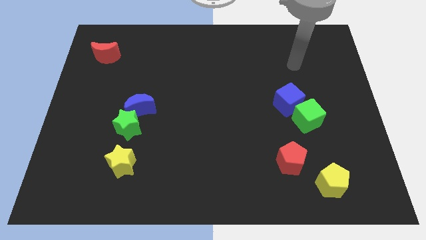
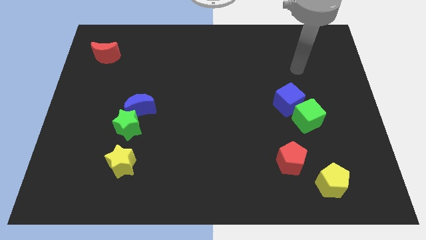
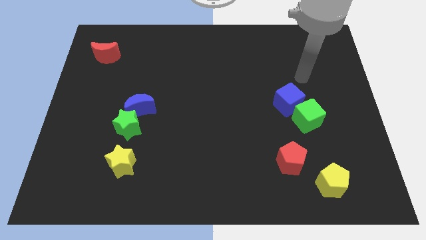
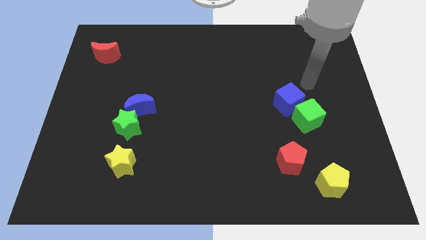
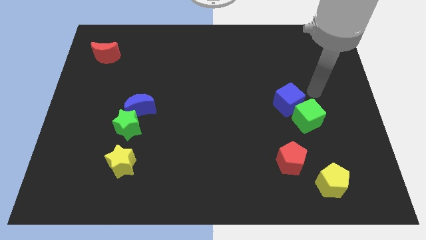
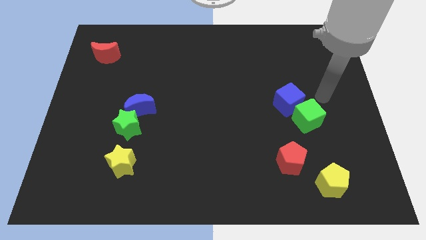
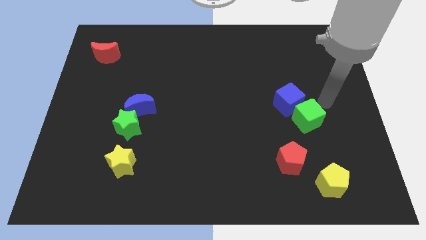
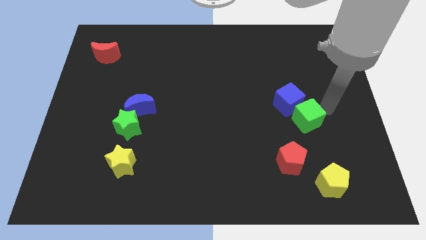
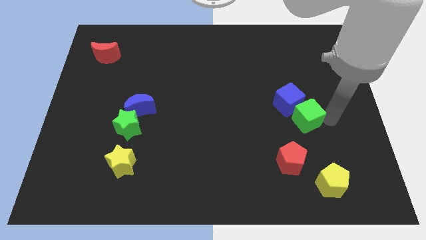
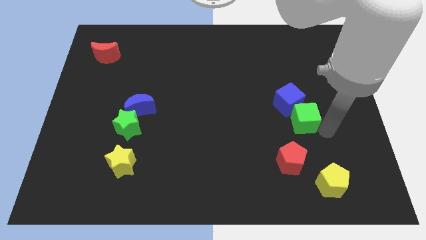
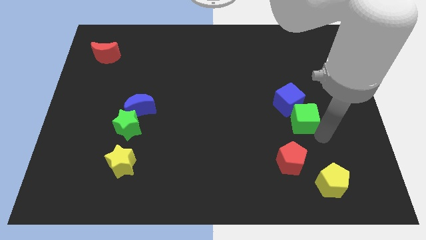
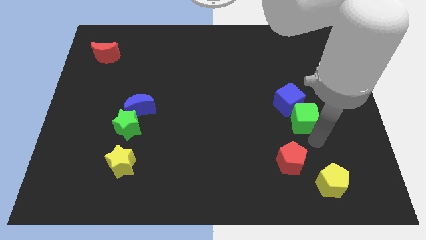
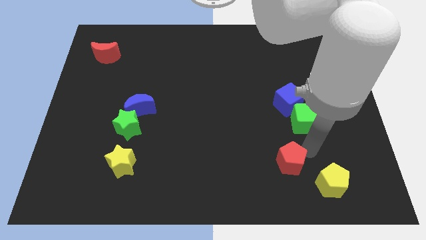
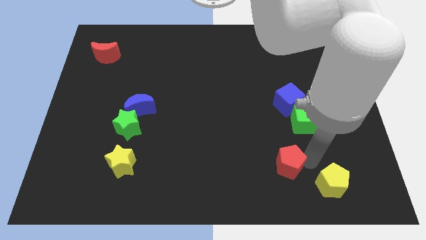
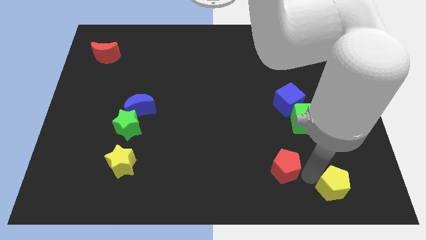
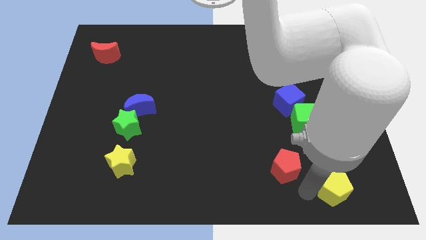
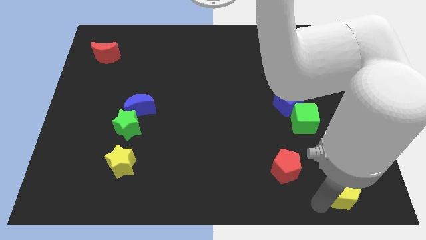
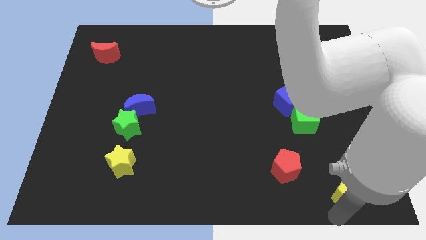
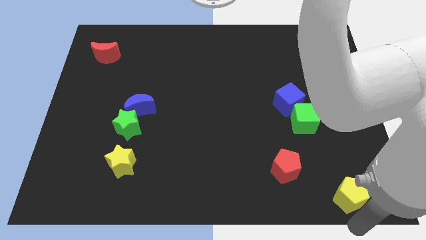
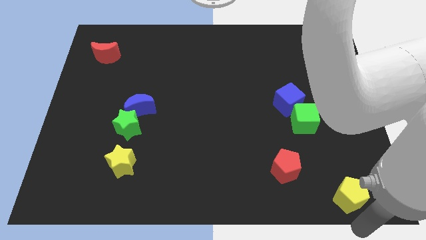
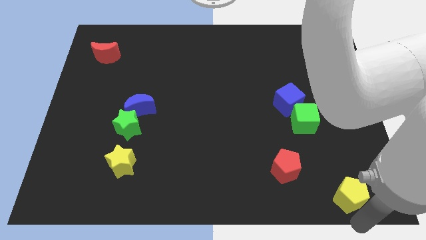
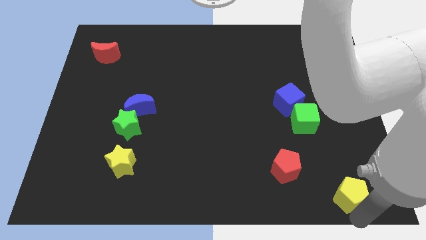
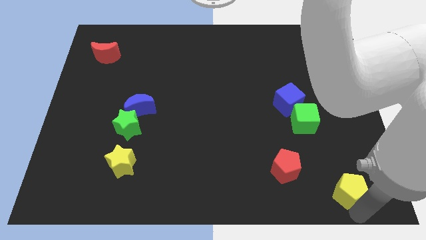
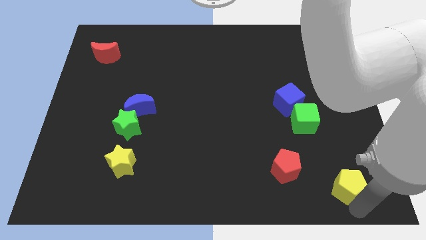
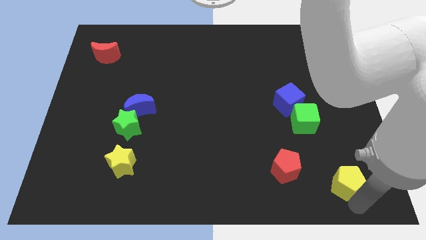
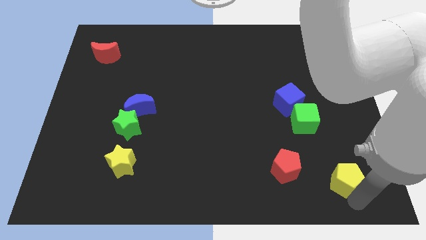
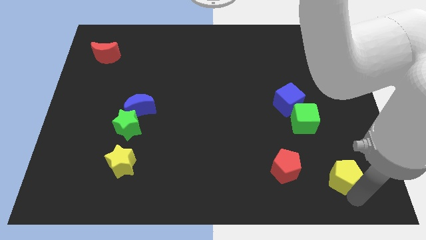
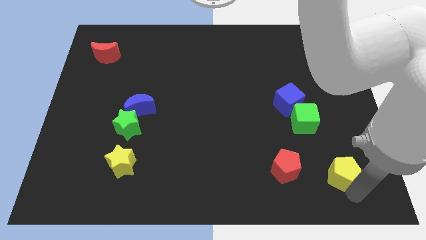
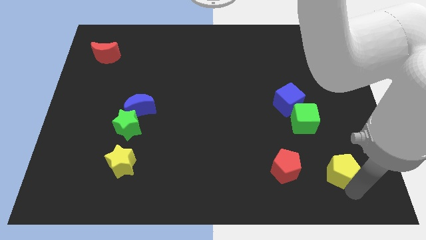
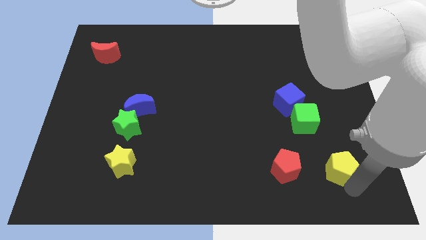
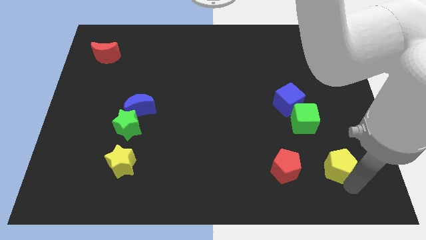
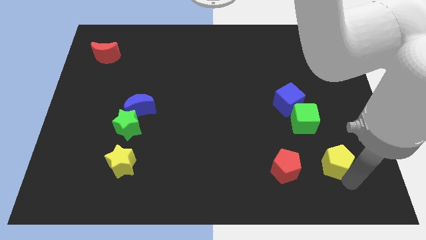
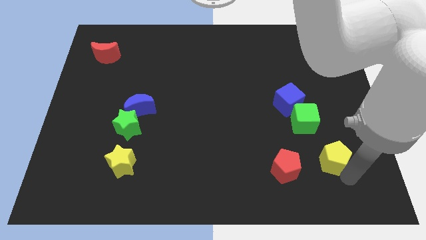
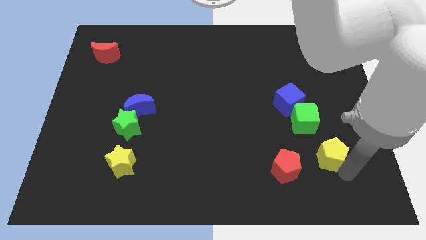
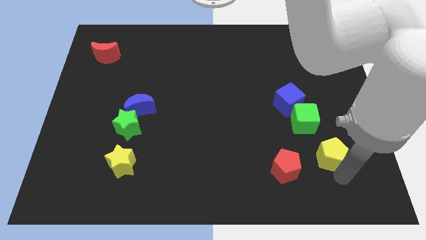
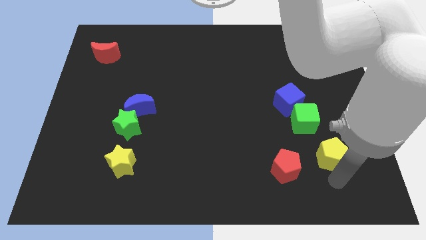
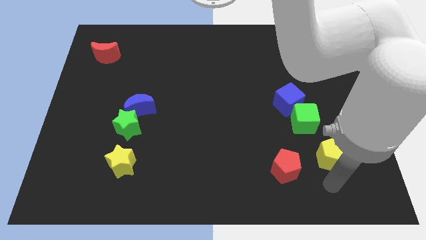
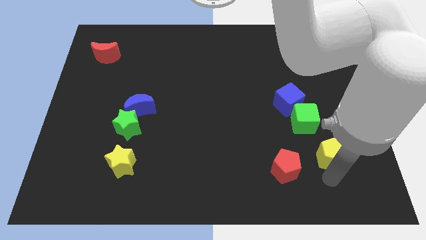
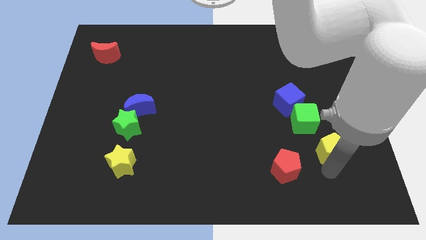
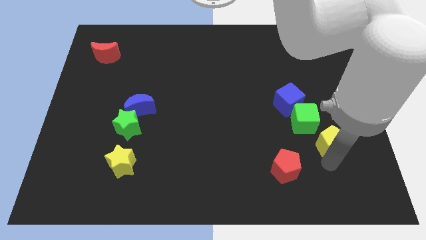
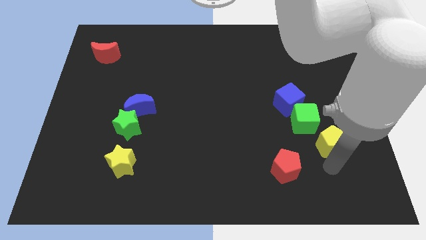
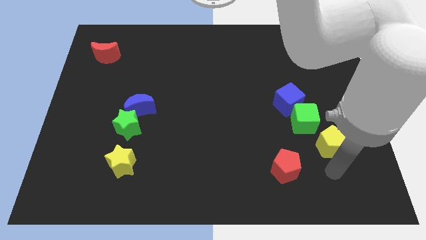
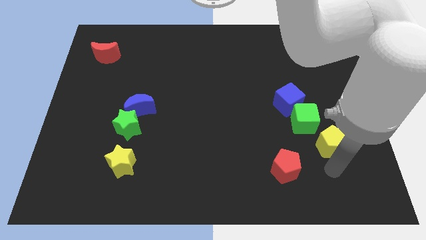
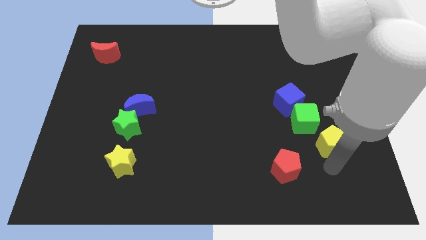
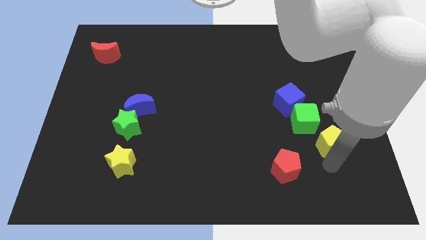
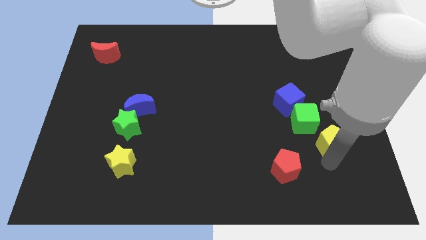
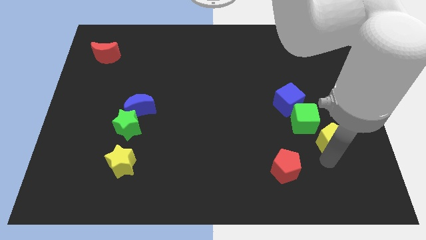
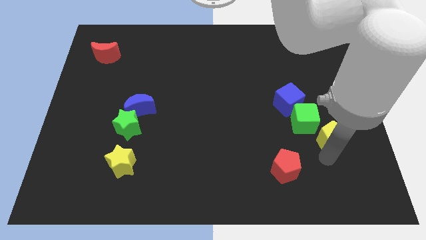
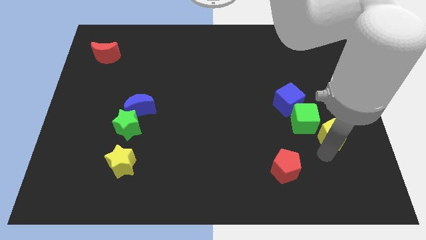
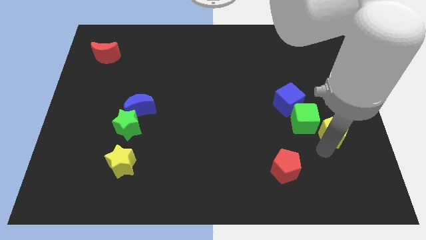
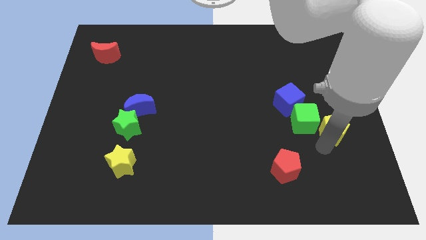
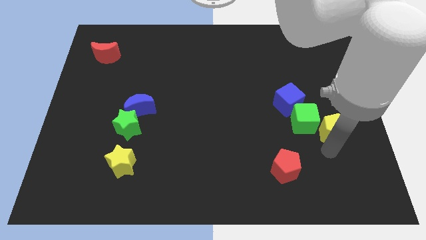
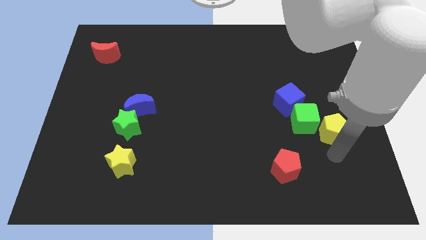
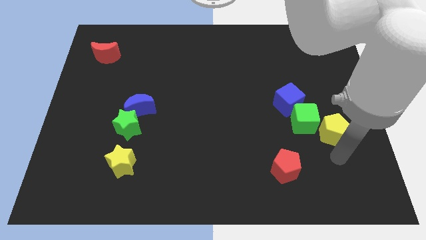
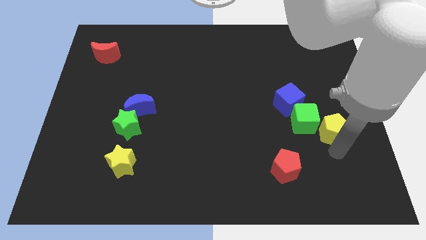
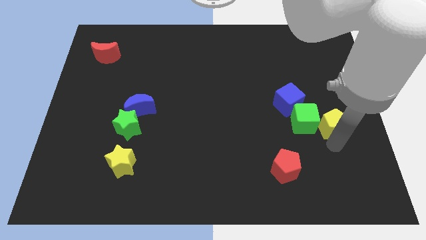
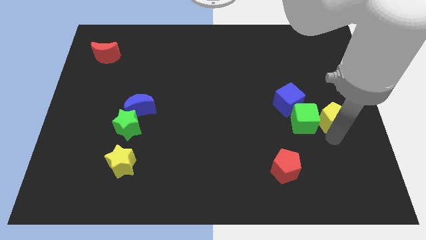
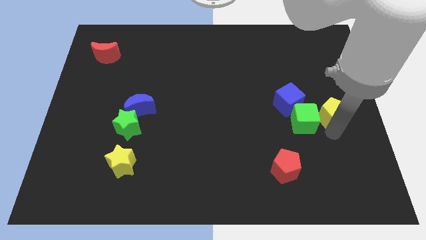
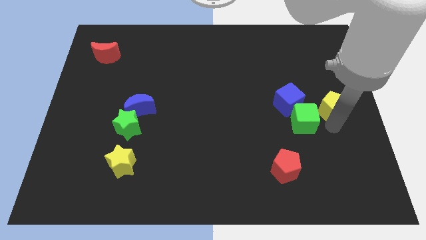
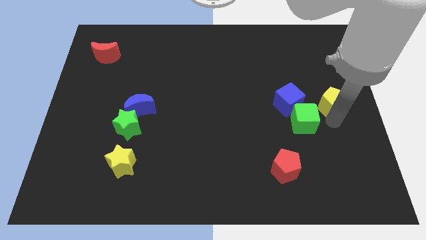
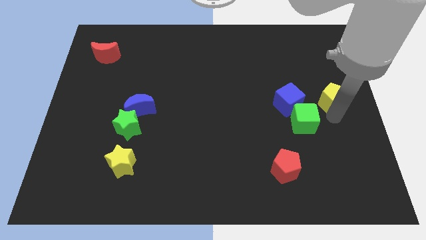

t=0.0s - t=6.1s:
move the yellow pentagon up

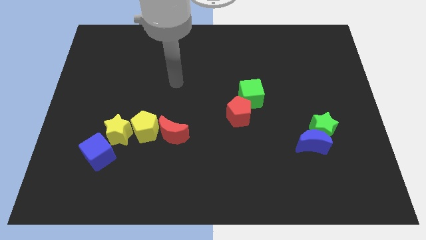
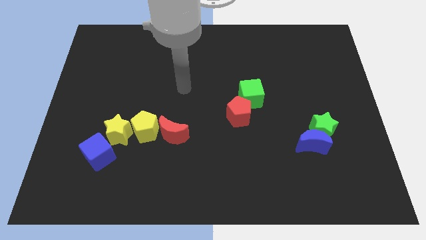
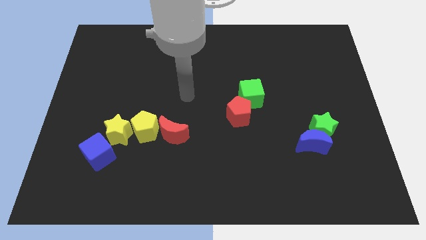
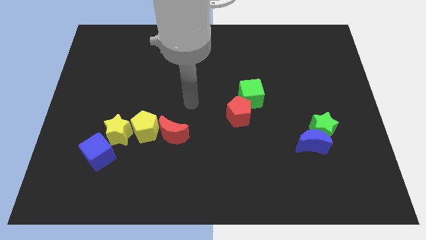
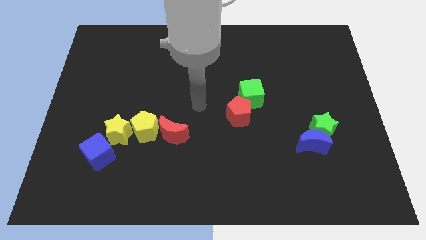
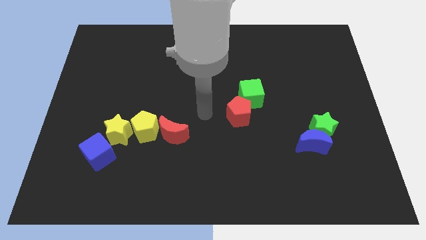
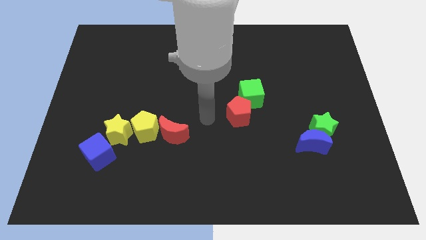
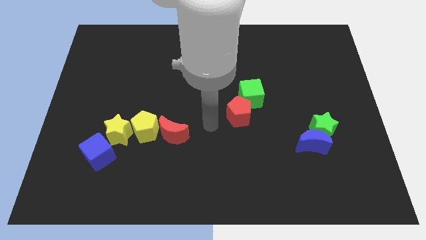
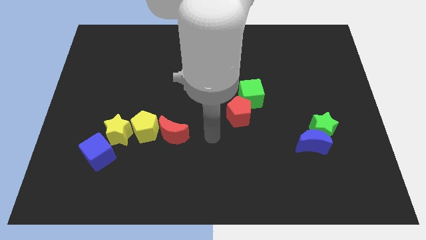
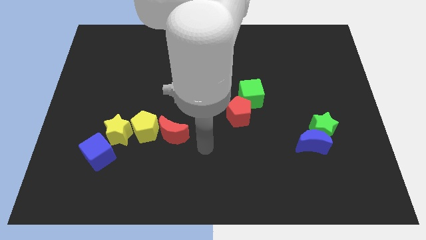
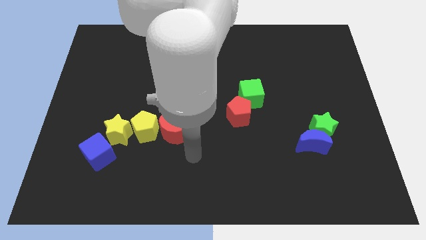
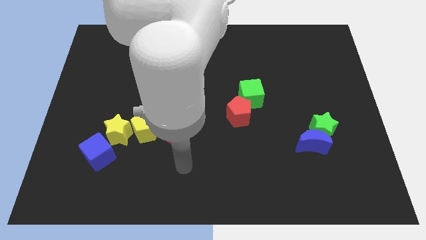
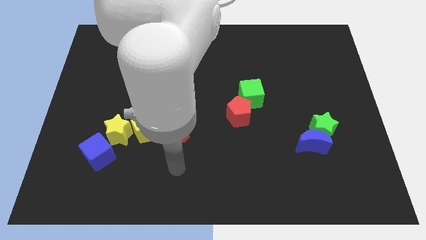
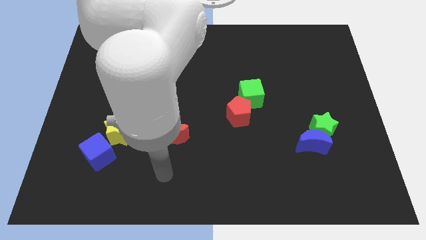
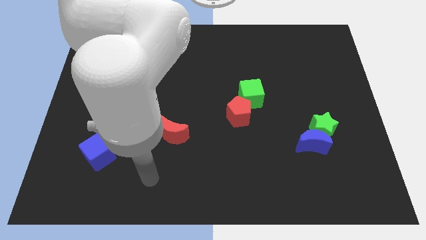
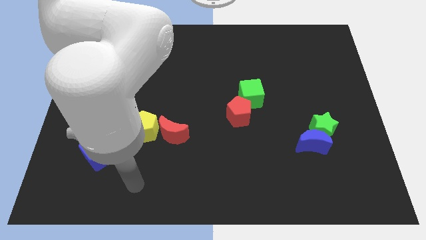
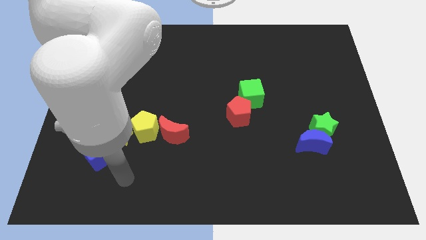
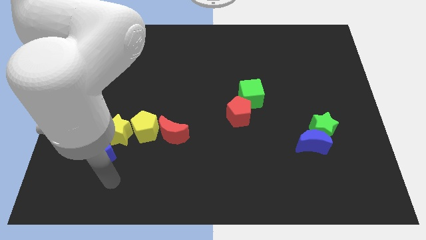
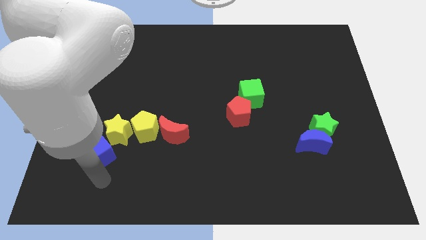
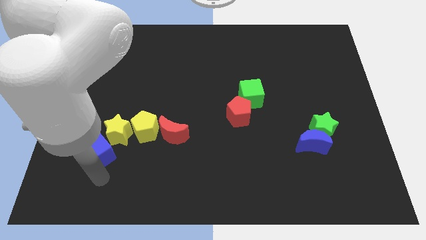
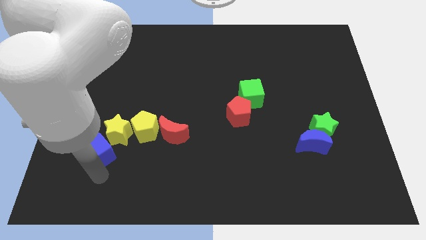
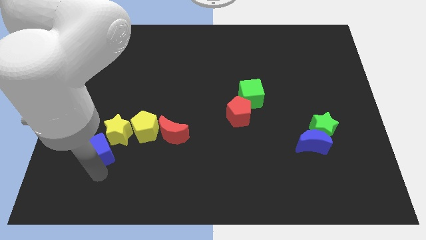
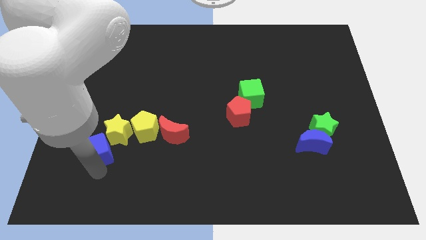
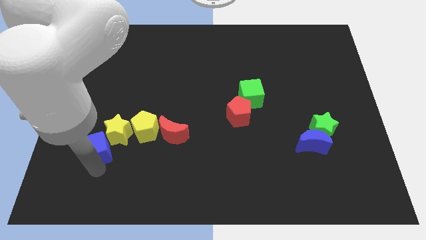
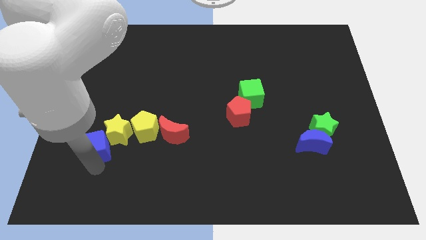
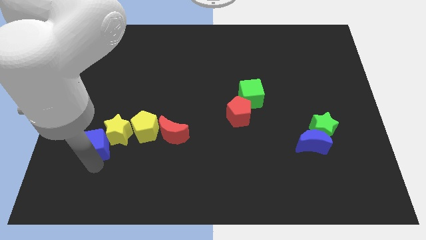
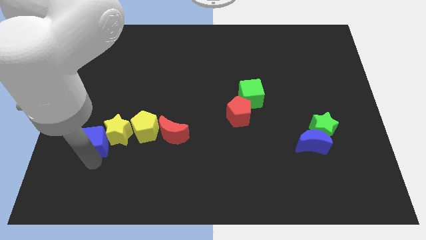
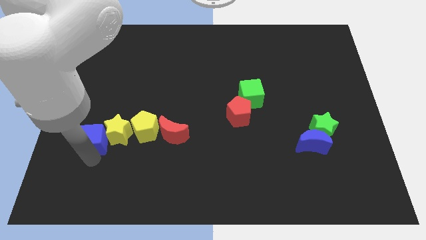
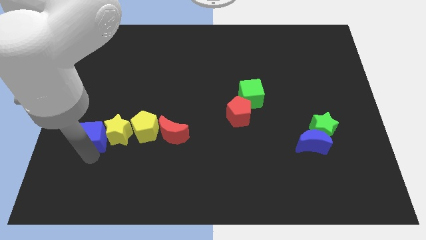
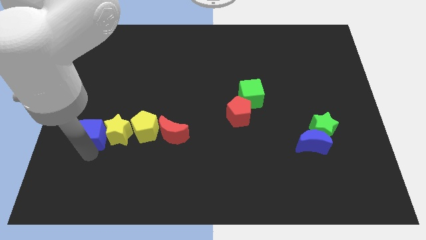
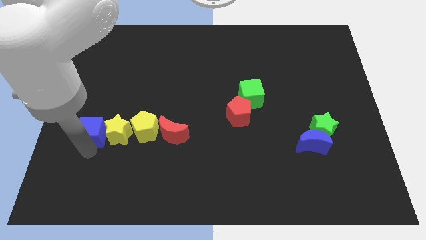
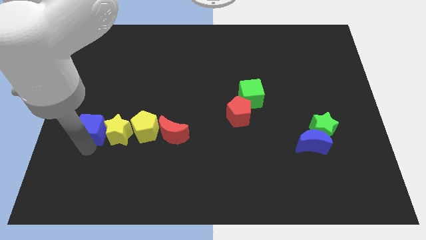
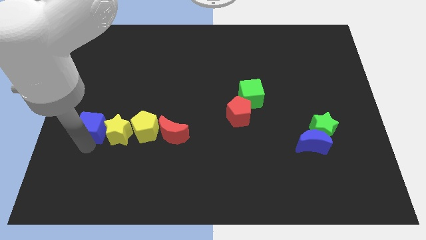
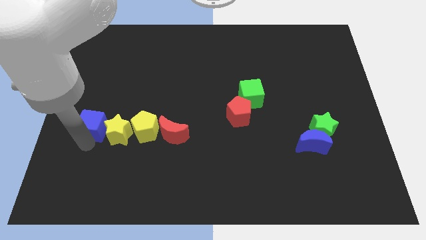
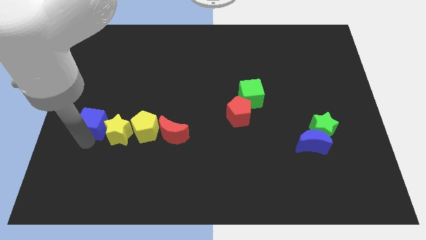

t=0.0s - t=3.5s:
push the blue cube up a bit
